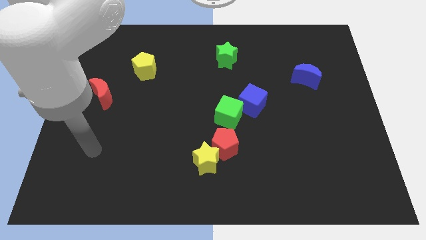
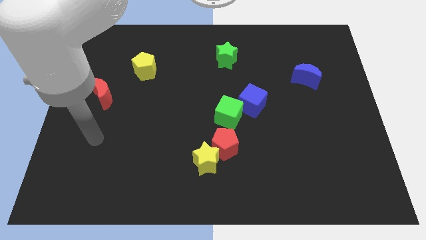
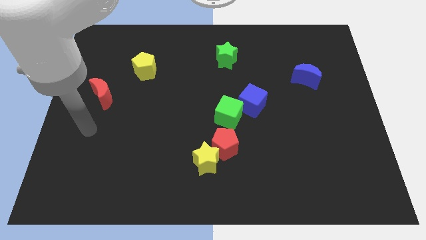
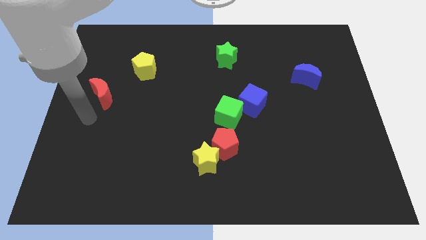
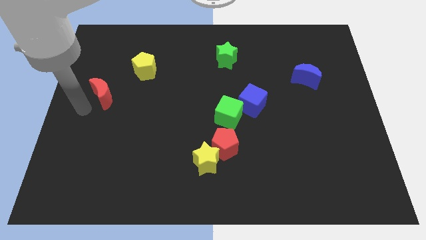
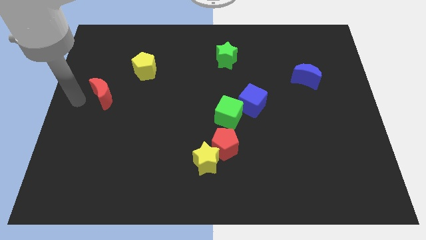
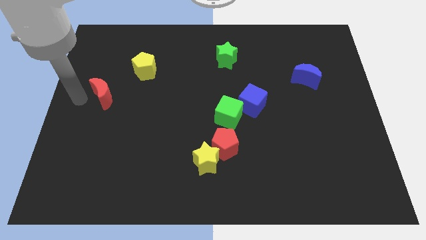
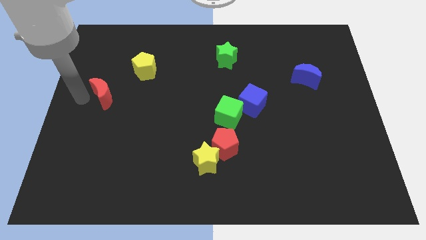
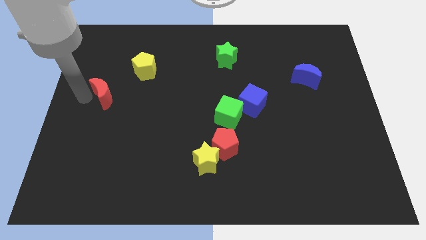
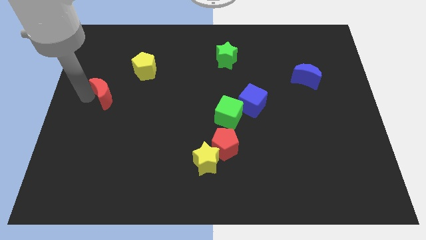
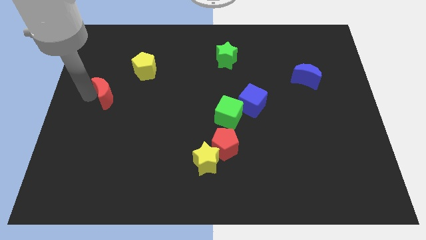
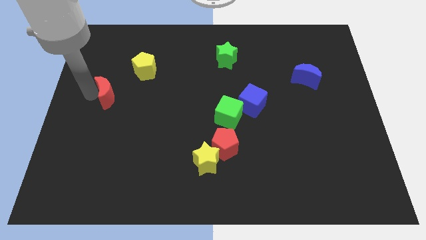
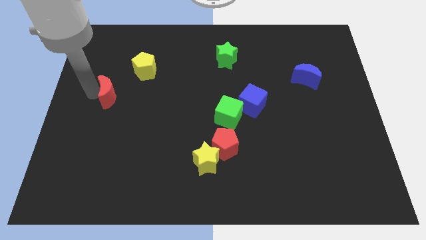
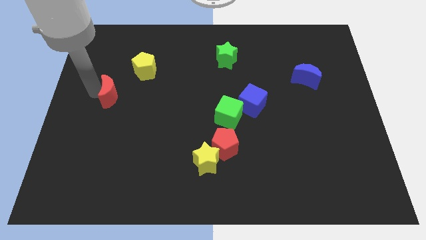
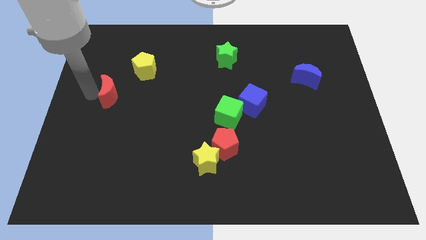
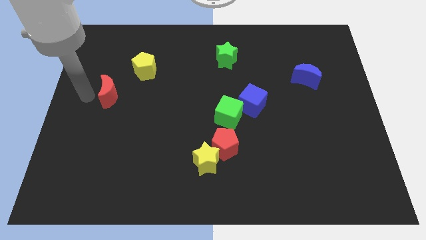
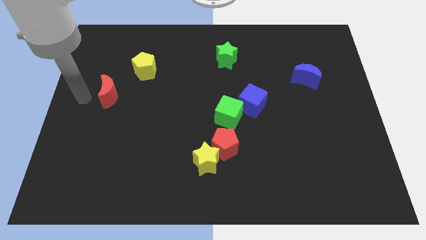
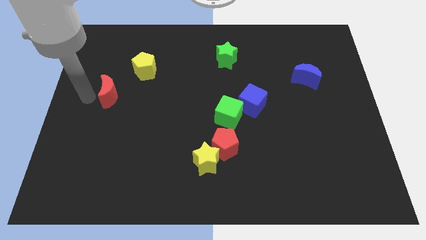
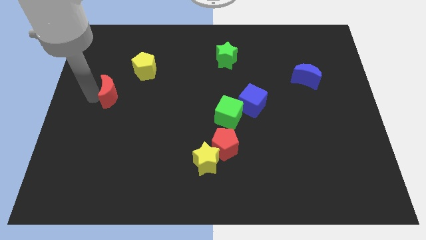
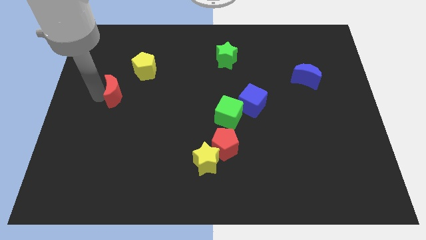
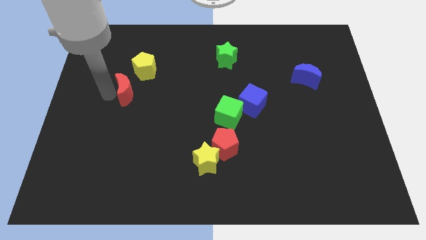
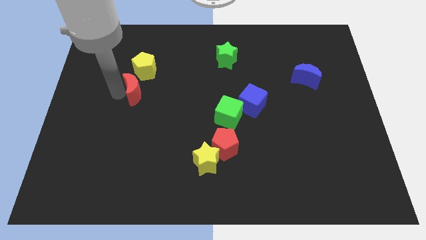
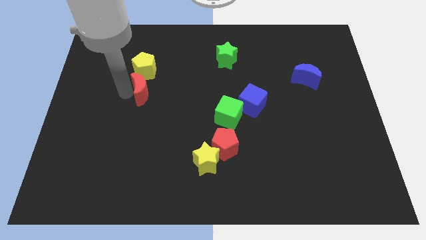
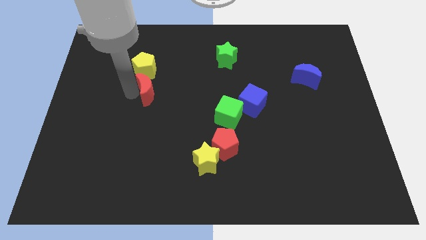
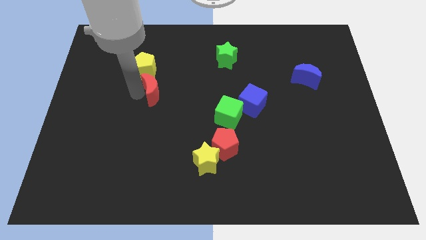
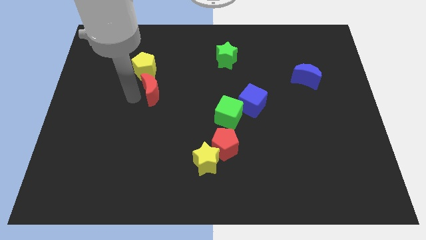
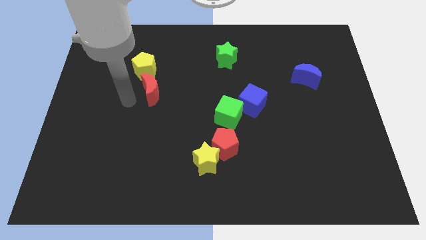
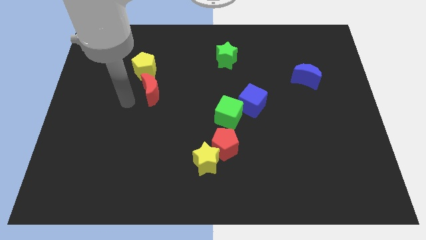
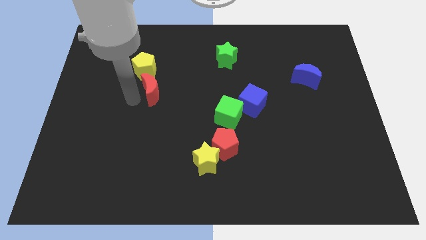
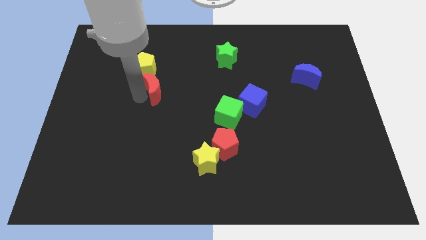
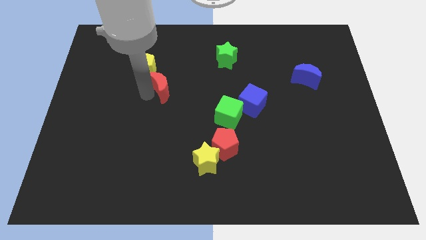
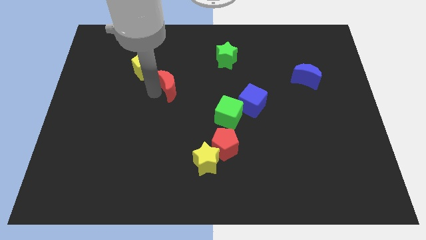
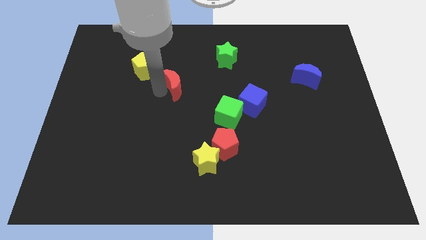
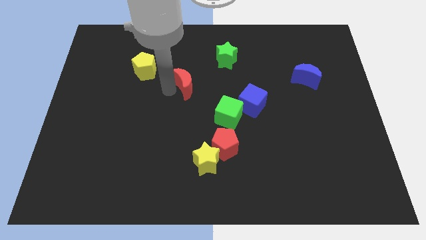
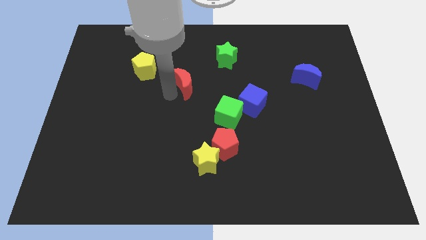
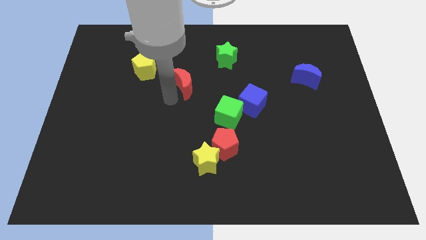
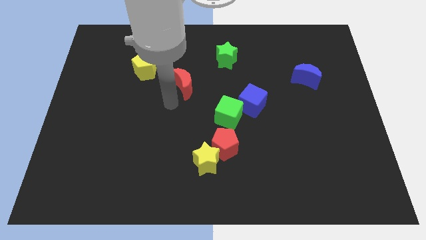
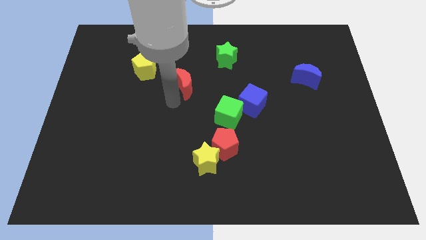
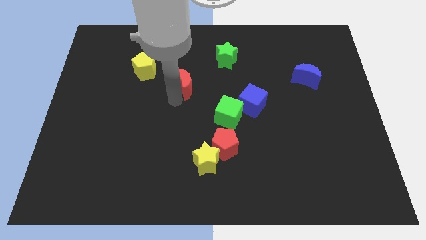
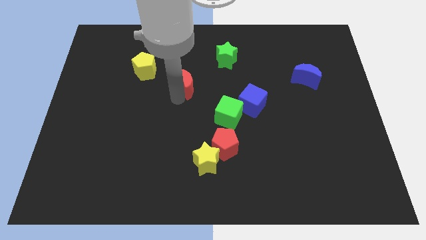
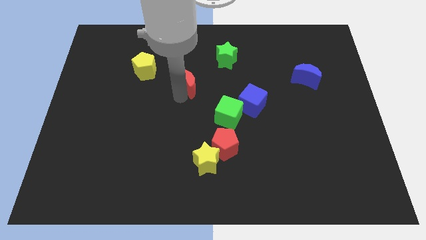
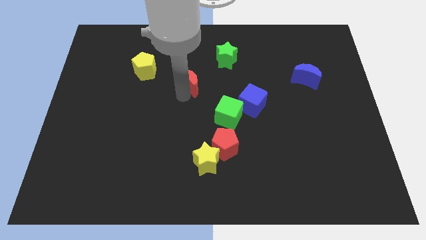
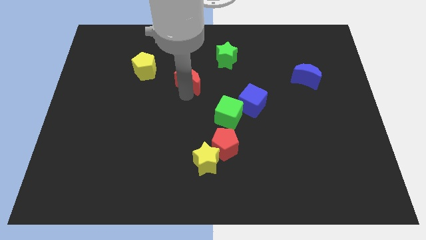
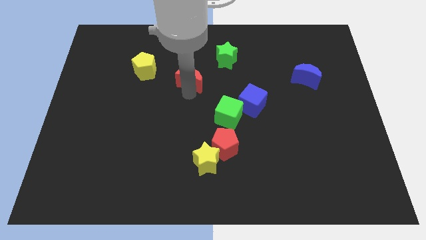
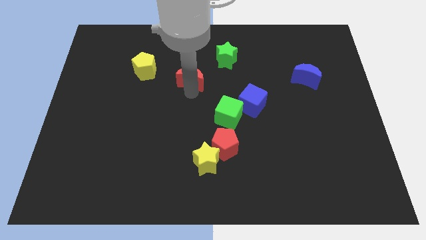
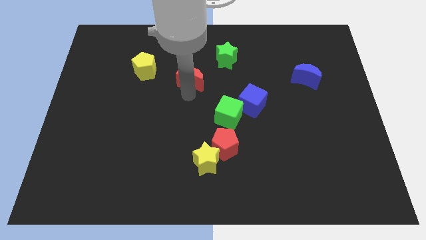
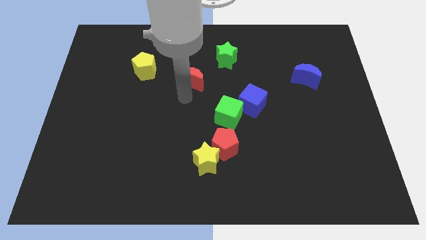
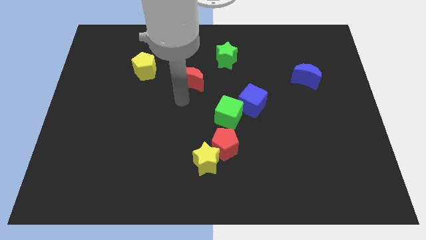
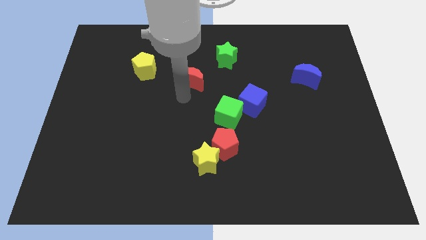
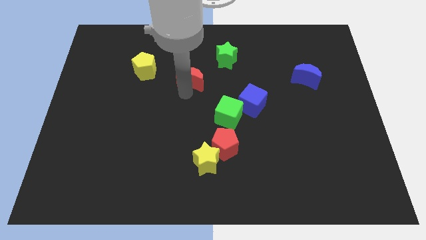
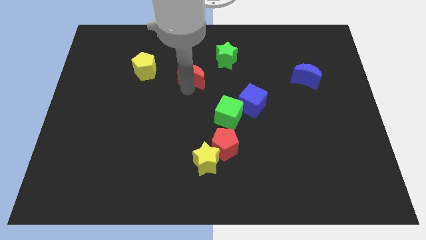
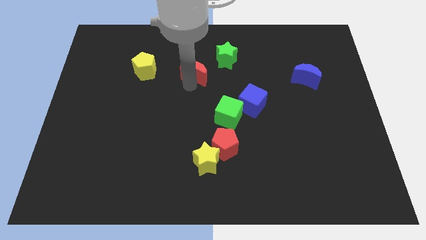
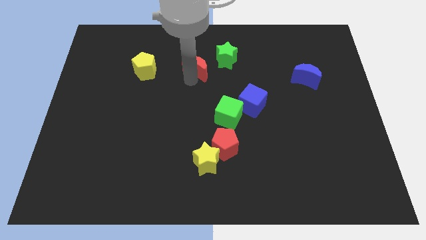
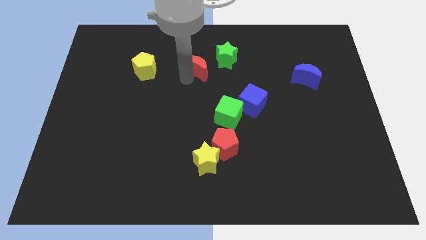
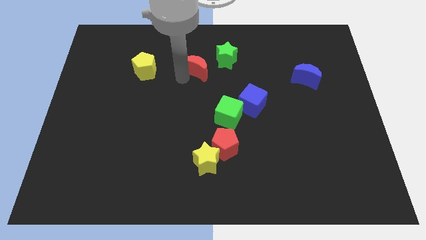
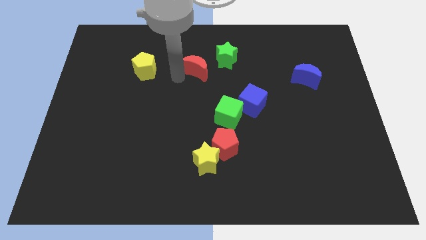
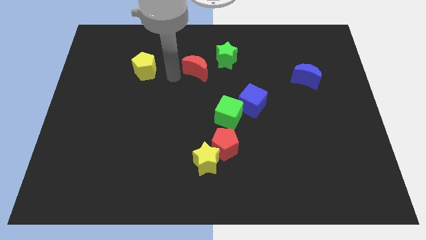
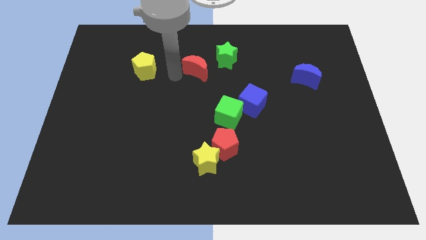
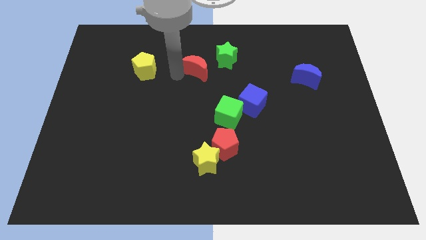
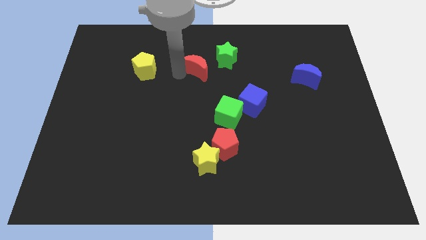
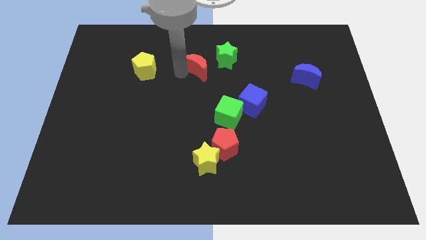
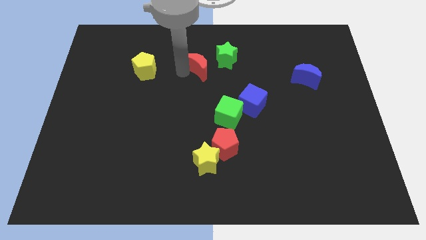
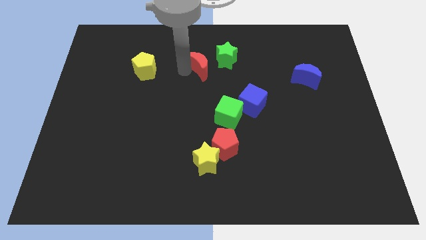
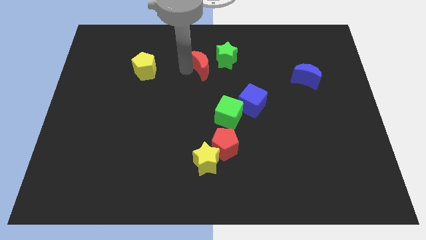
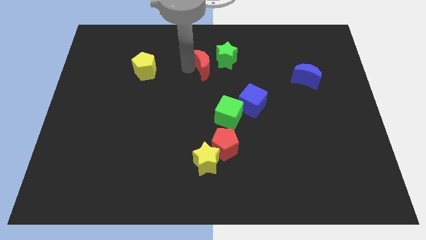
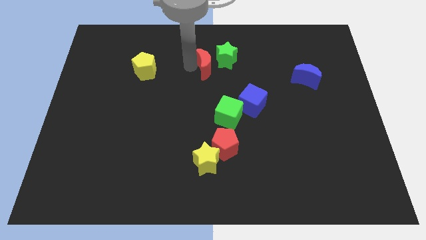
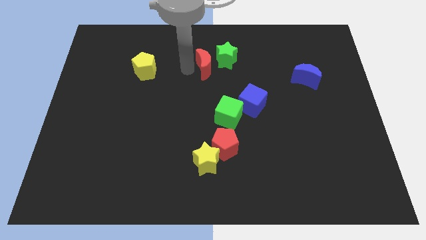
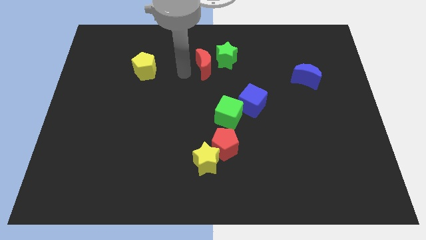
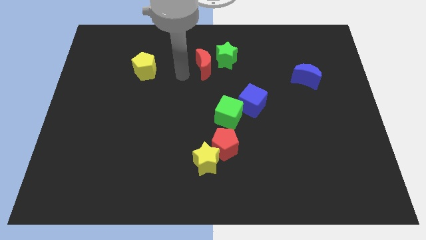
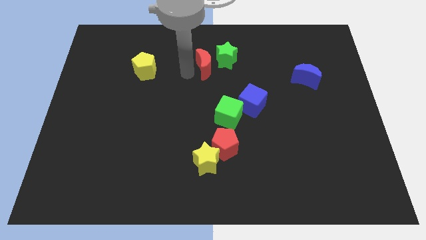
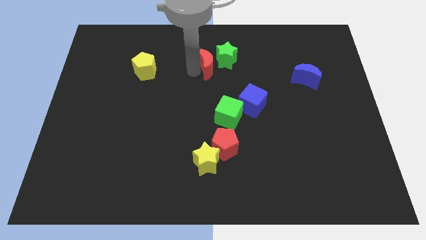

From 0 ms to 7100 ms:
put the red moon towards the green star
